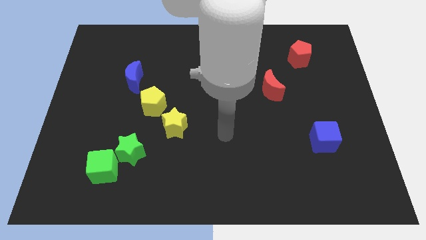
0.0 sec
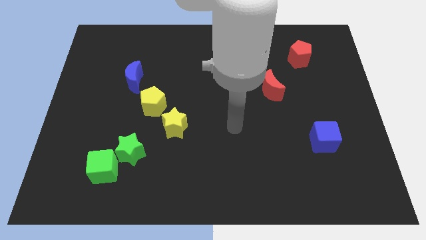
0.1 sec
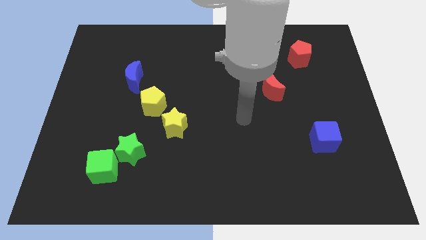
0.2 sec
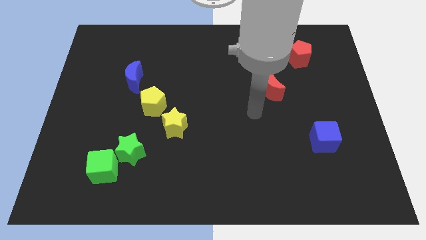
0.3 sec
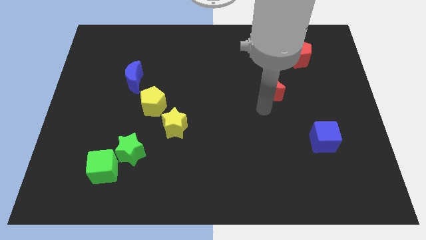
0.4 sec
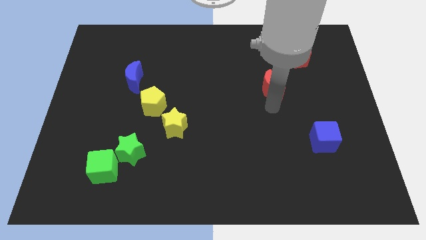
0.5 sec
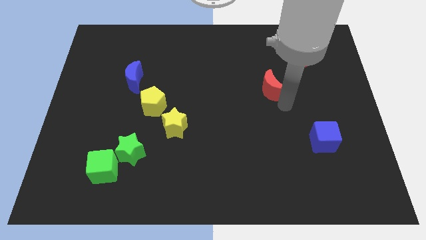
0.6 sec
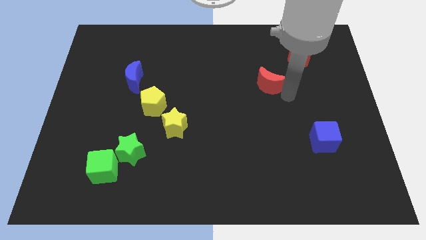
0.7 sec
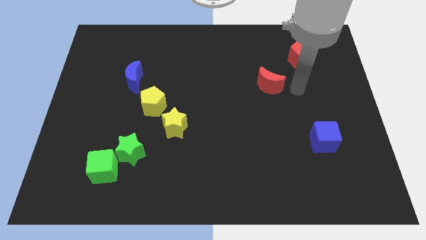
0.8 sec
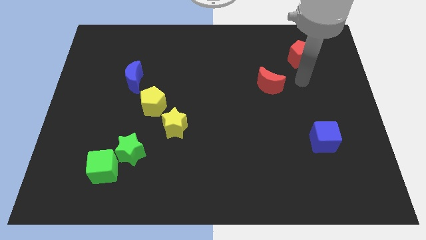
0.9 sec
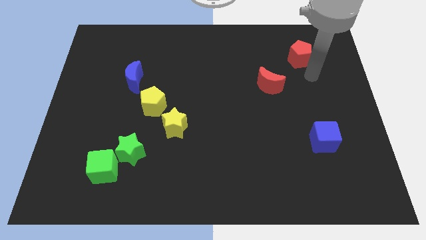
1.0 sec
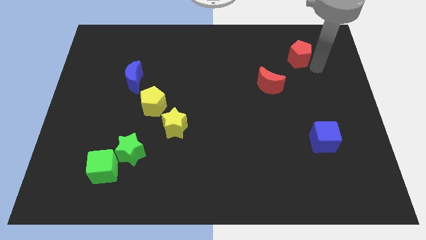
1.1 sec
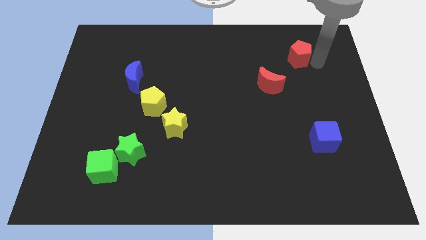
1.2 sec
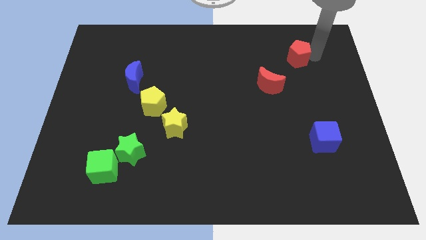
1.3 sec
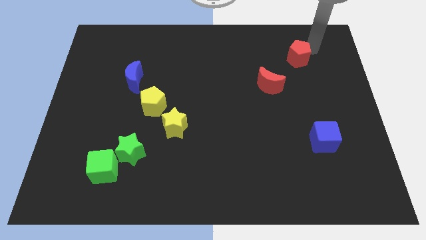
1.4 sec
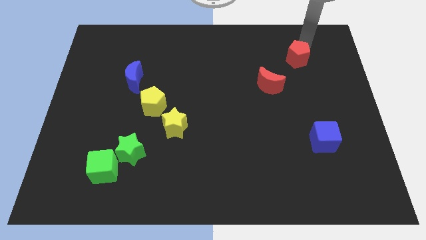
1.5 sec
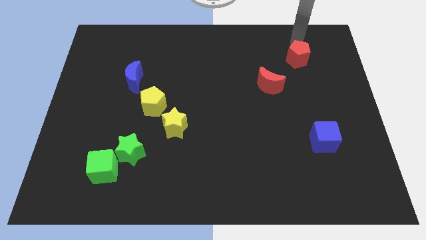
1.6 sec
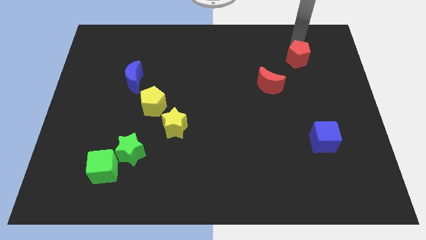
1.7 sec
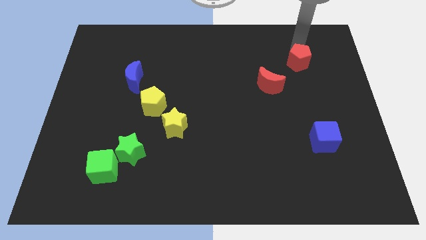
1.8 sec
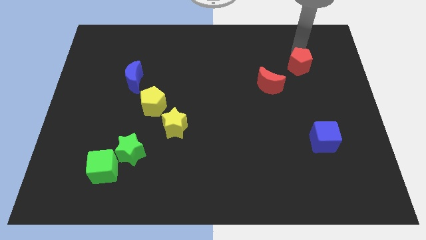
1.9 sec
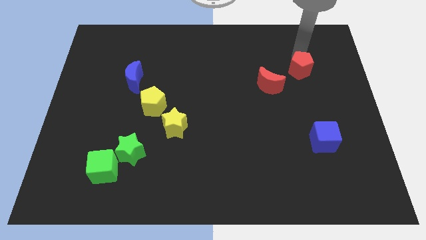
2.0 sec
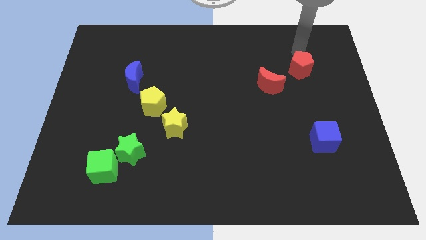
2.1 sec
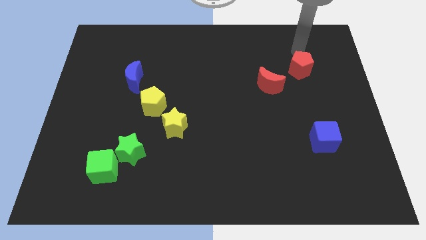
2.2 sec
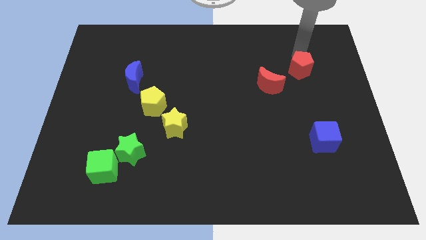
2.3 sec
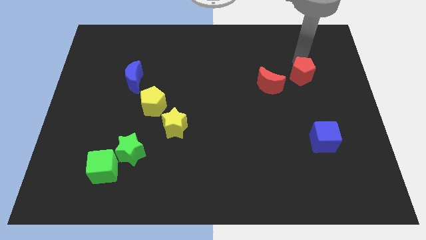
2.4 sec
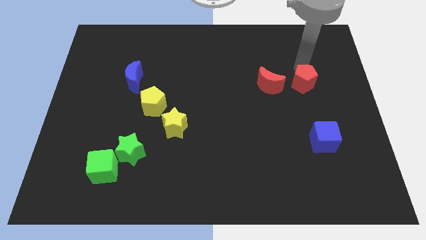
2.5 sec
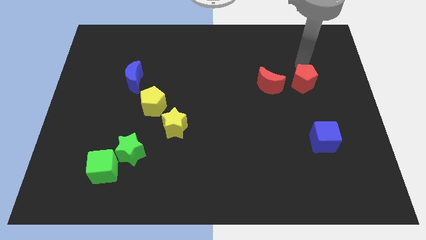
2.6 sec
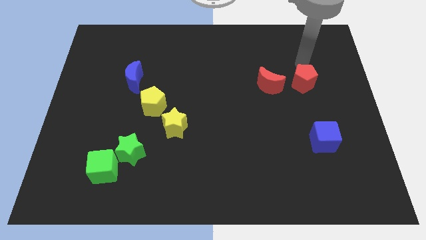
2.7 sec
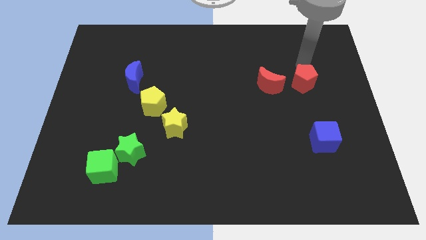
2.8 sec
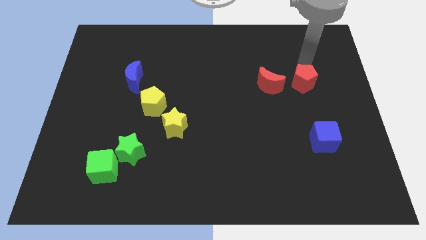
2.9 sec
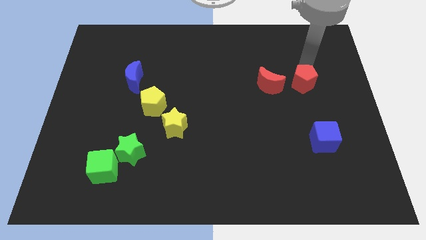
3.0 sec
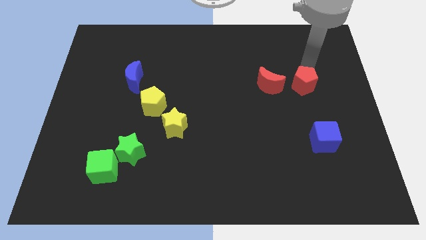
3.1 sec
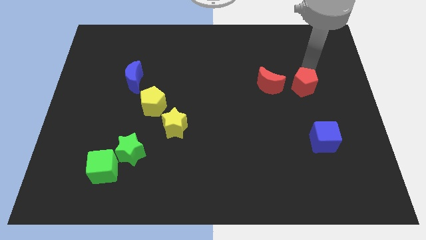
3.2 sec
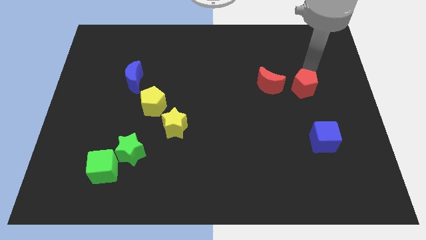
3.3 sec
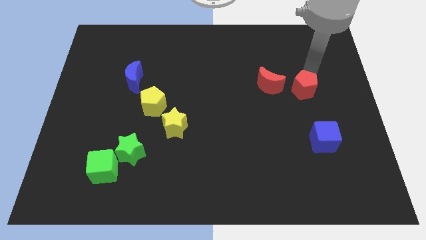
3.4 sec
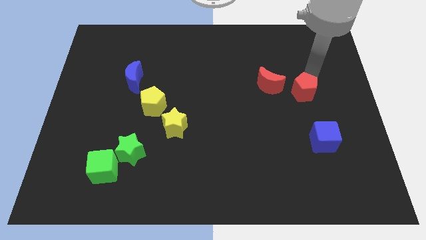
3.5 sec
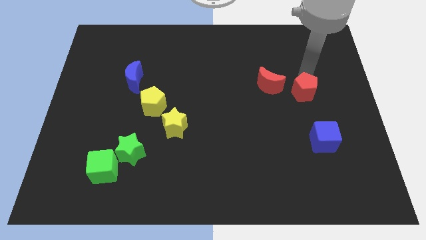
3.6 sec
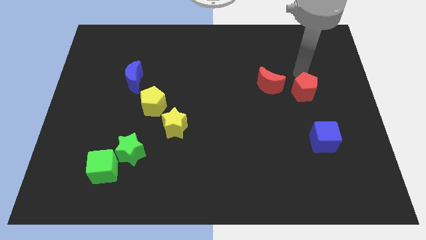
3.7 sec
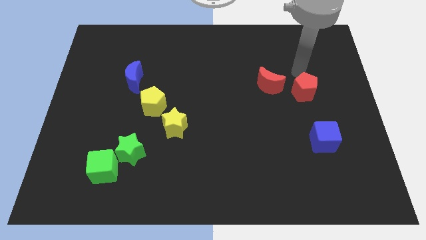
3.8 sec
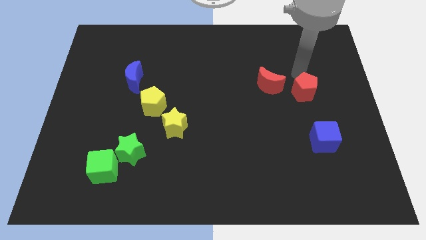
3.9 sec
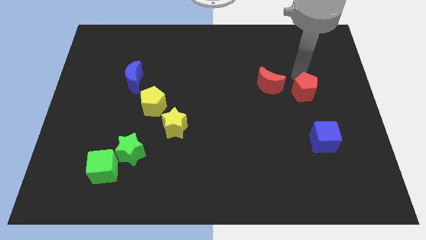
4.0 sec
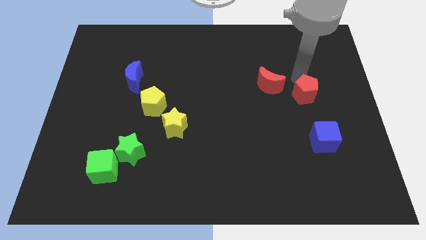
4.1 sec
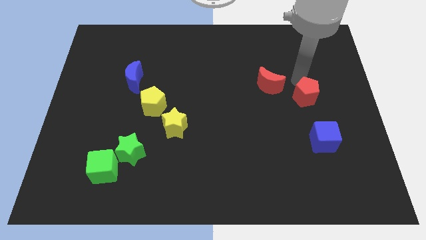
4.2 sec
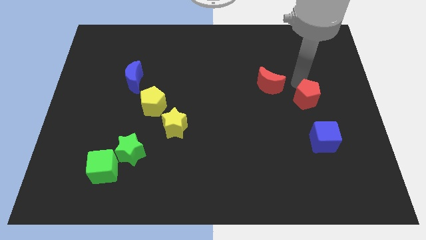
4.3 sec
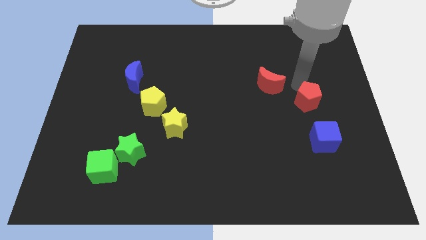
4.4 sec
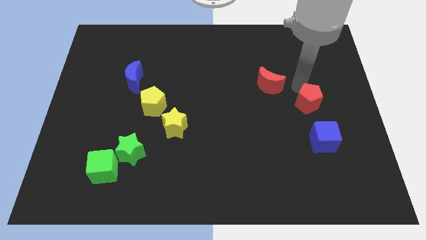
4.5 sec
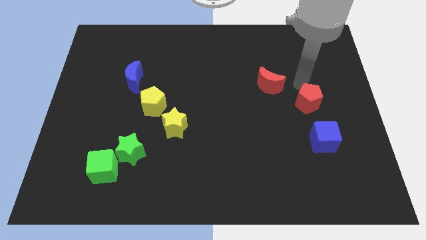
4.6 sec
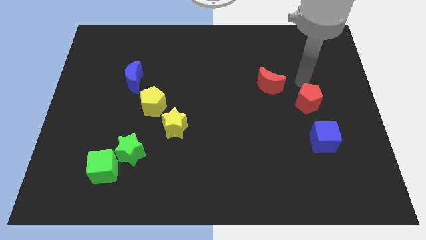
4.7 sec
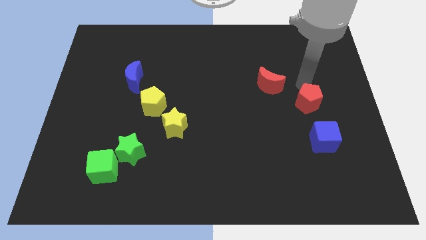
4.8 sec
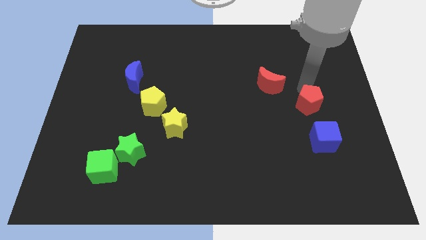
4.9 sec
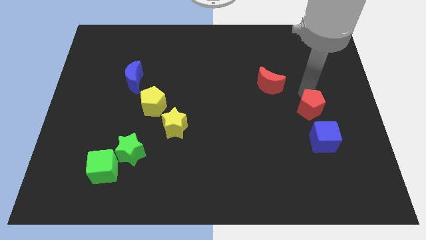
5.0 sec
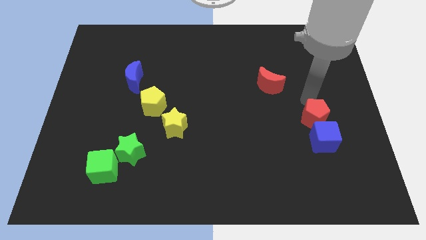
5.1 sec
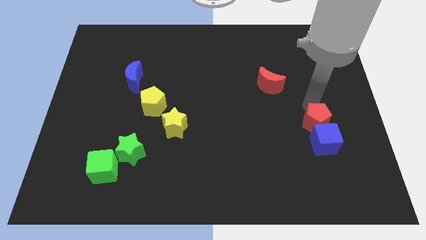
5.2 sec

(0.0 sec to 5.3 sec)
push the red pentagon close to the blue cube

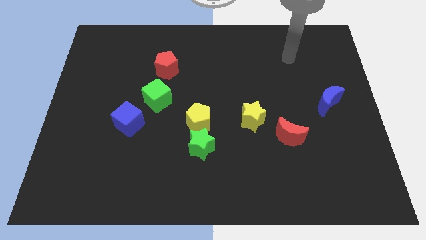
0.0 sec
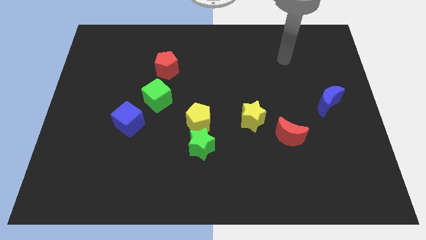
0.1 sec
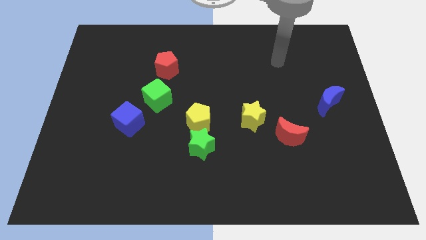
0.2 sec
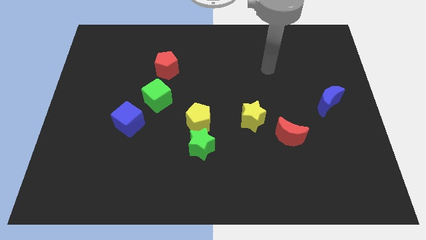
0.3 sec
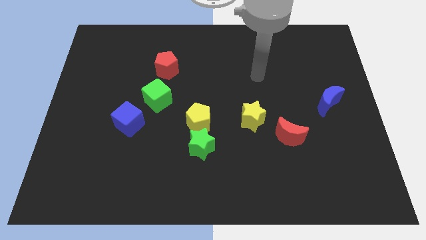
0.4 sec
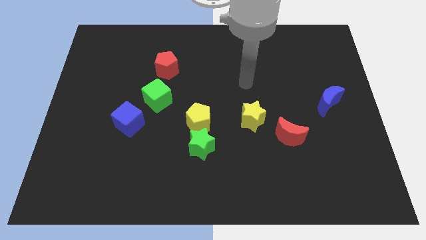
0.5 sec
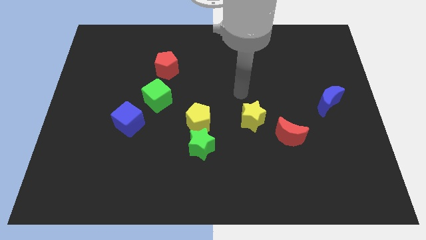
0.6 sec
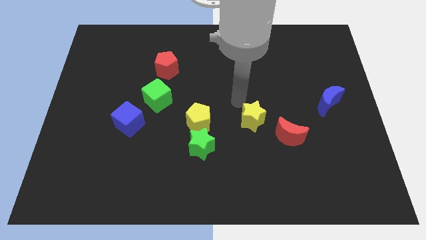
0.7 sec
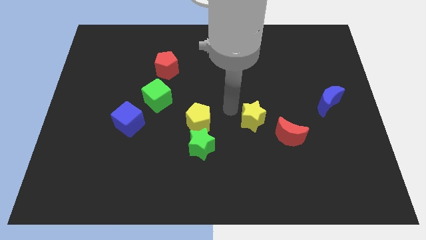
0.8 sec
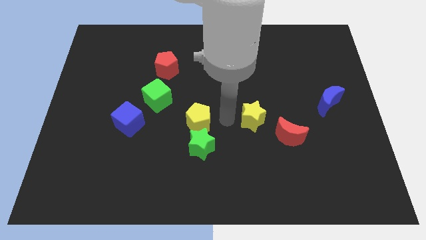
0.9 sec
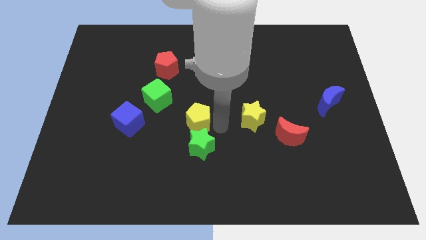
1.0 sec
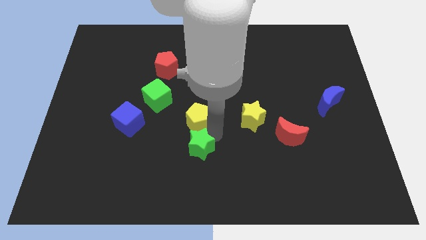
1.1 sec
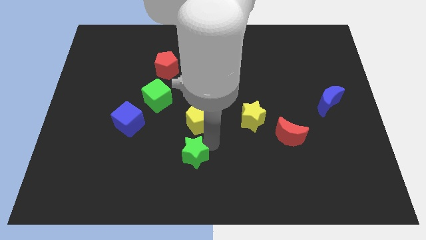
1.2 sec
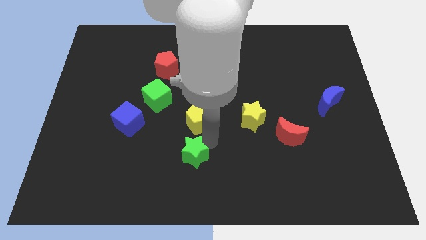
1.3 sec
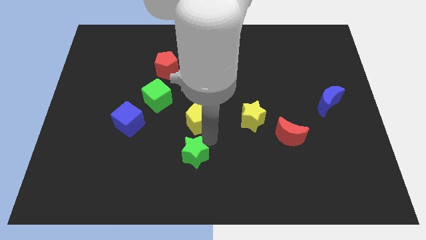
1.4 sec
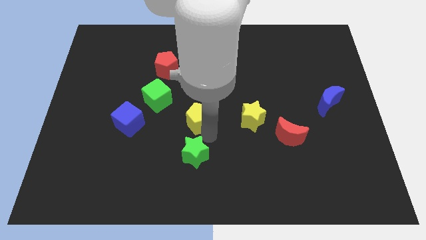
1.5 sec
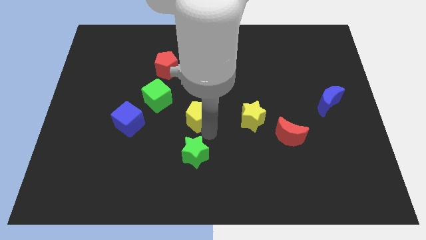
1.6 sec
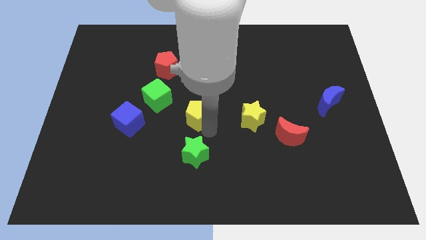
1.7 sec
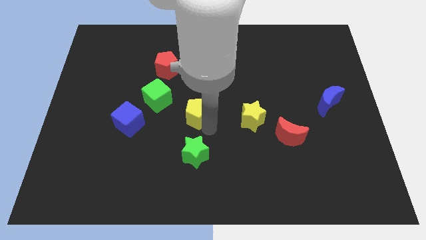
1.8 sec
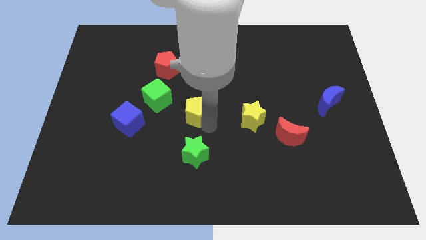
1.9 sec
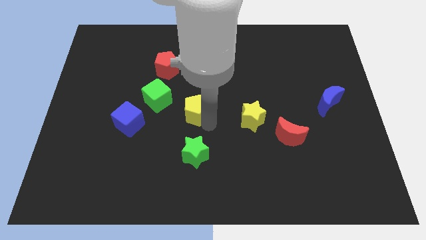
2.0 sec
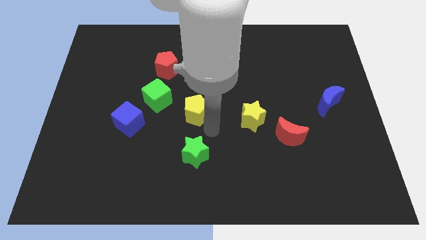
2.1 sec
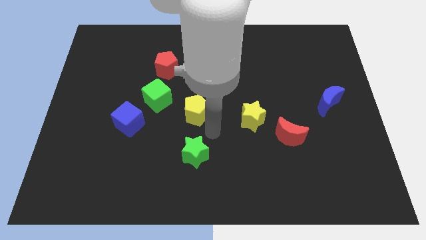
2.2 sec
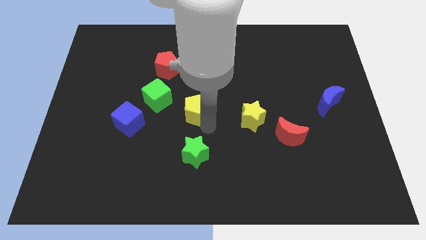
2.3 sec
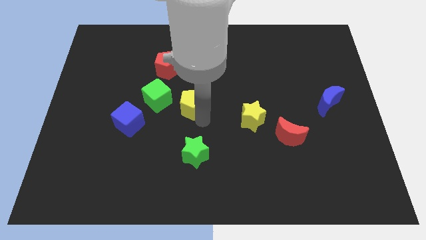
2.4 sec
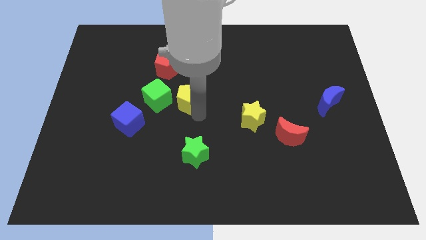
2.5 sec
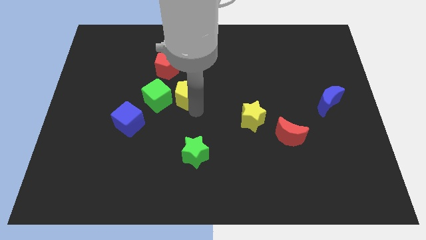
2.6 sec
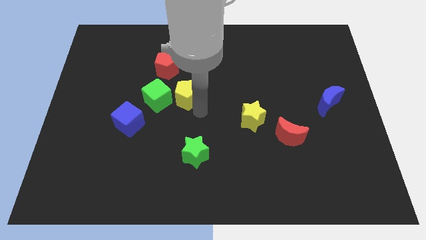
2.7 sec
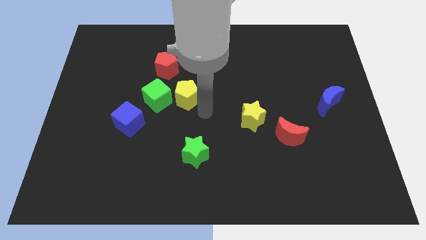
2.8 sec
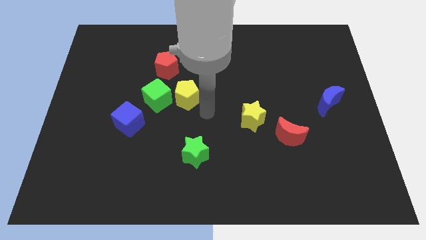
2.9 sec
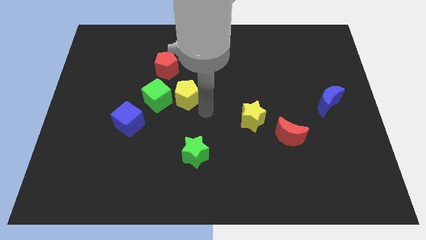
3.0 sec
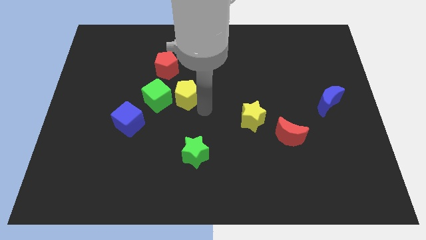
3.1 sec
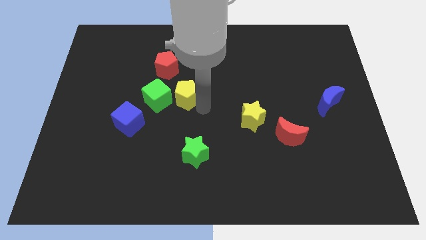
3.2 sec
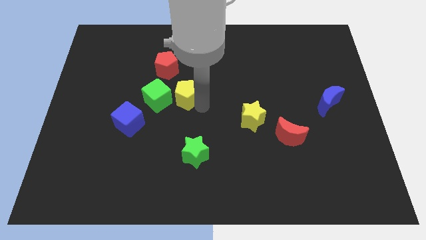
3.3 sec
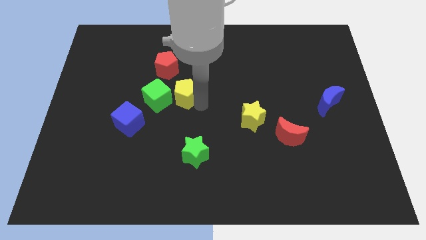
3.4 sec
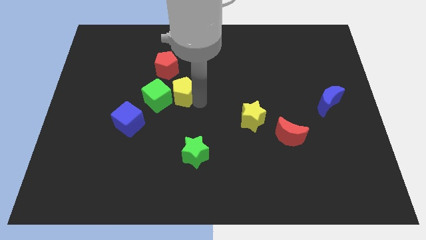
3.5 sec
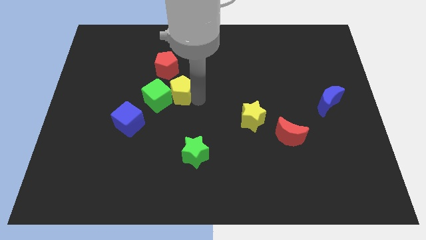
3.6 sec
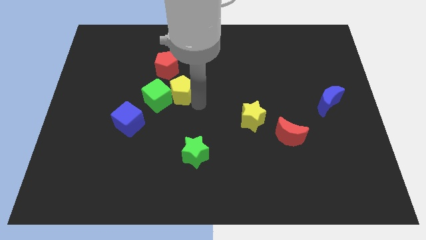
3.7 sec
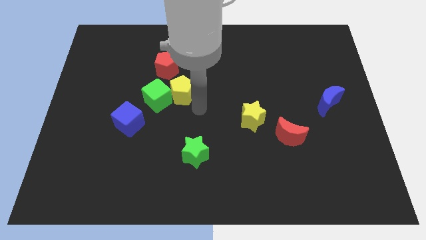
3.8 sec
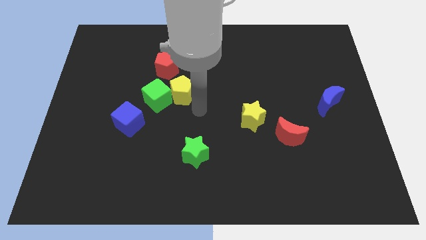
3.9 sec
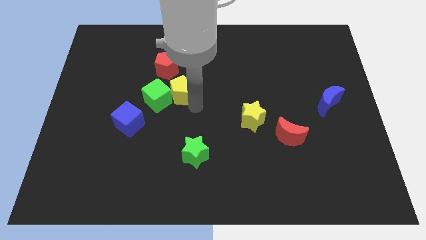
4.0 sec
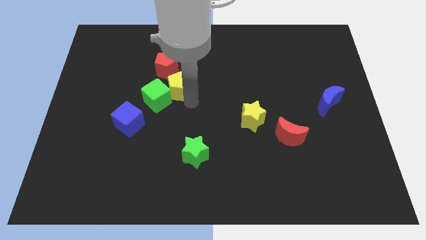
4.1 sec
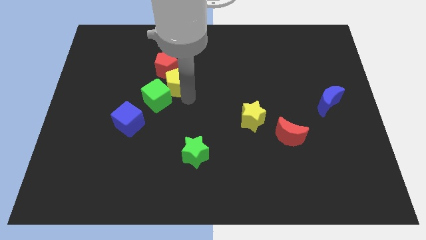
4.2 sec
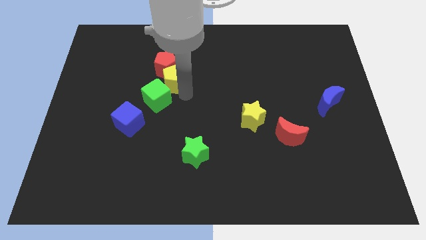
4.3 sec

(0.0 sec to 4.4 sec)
move the yellow pentagon close to the red pentagon
